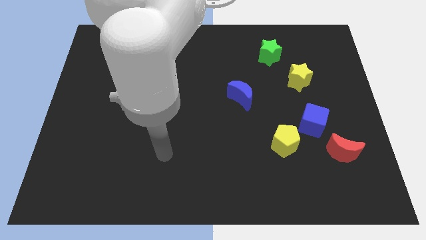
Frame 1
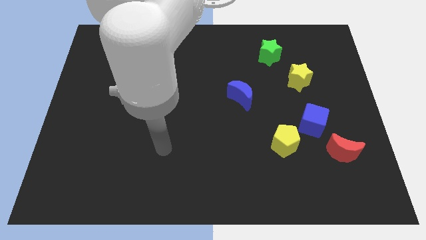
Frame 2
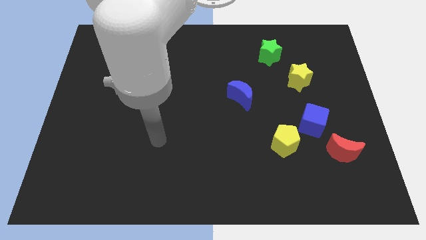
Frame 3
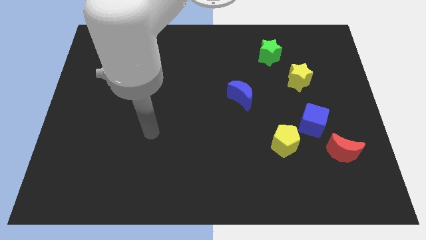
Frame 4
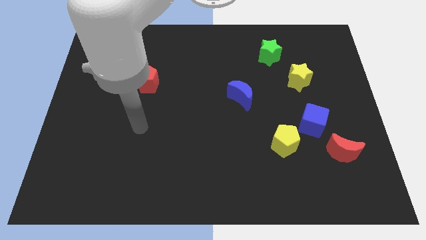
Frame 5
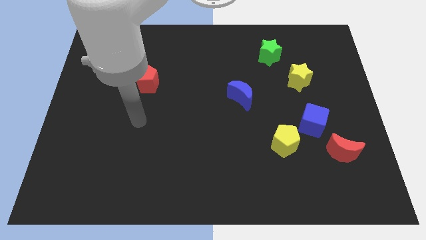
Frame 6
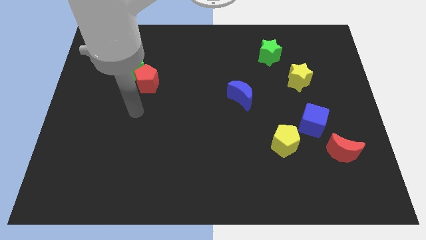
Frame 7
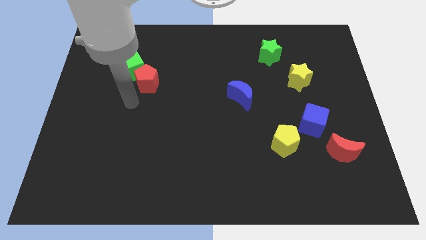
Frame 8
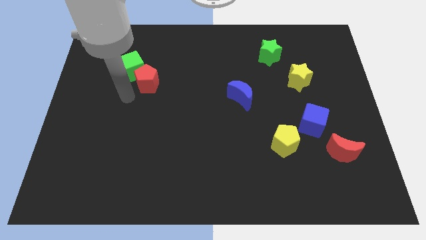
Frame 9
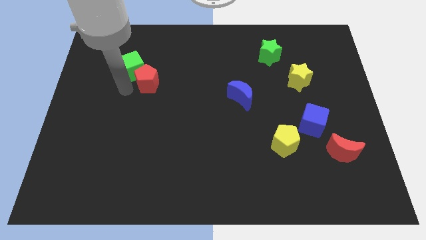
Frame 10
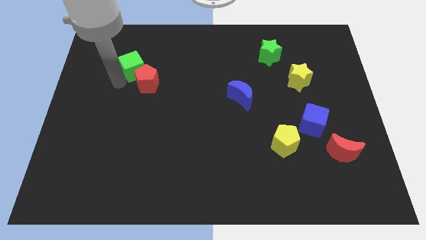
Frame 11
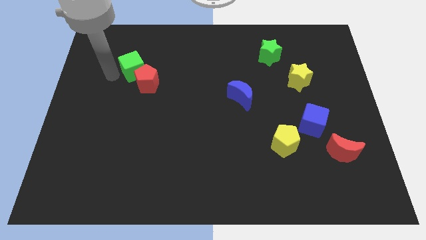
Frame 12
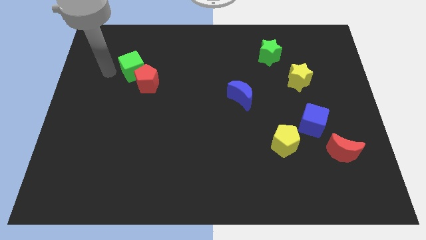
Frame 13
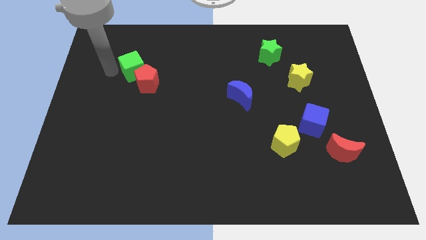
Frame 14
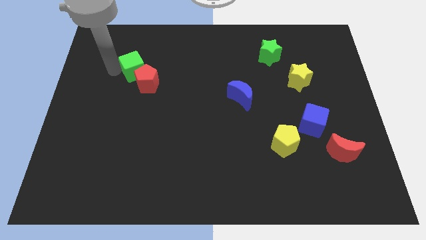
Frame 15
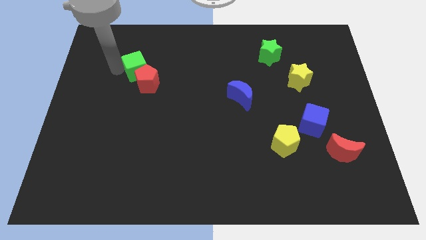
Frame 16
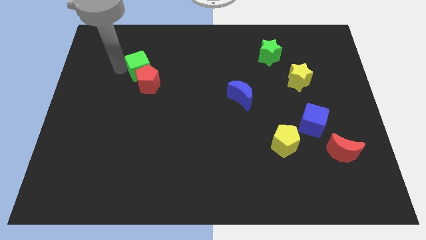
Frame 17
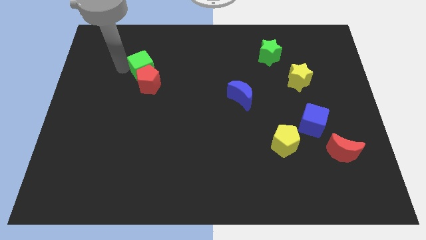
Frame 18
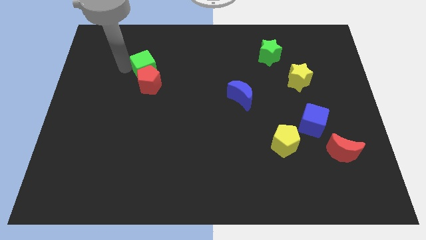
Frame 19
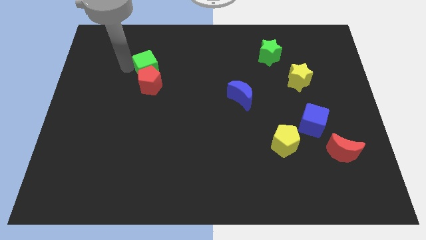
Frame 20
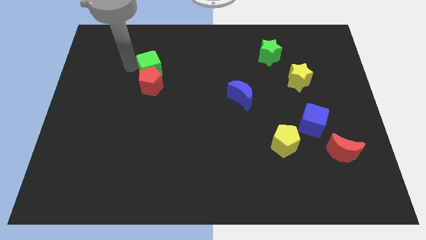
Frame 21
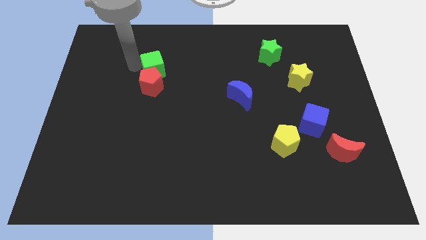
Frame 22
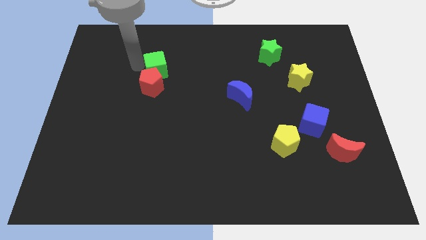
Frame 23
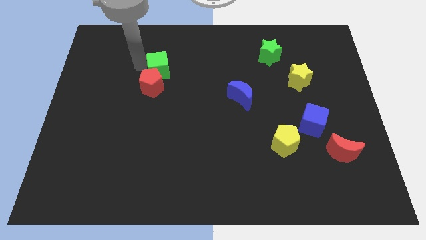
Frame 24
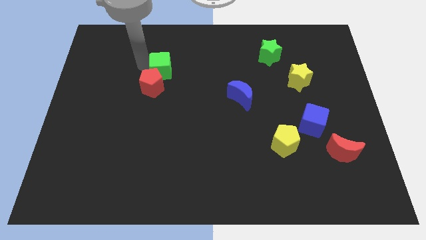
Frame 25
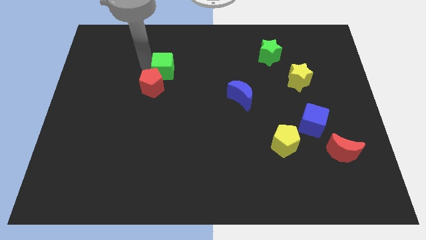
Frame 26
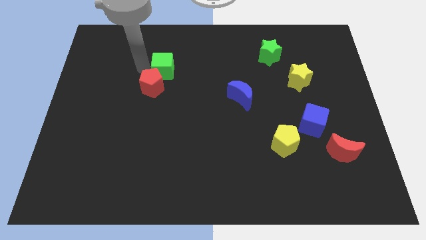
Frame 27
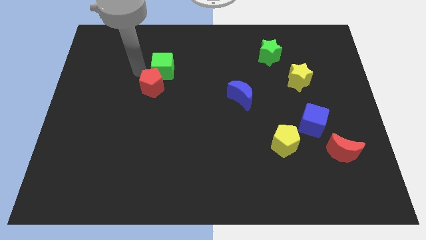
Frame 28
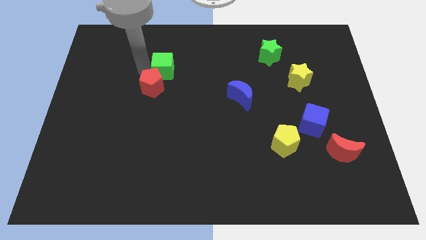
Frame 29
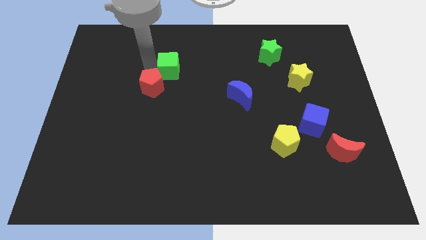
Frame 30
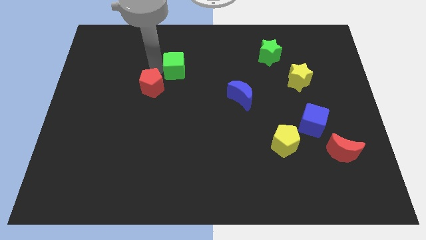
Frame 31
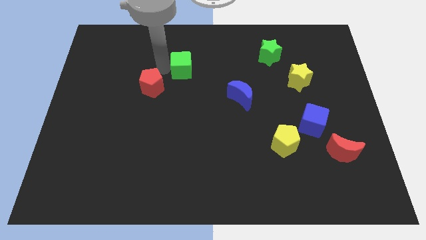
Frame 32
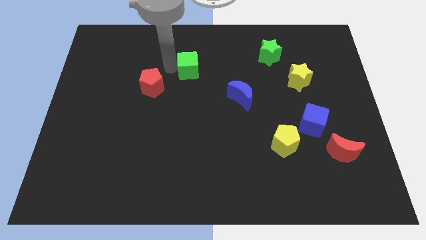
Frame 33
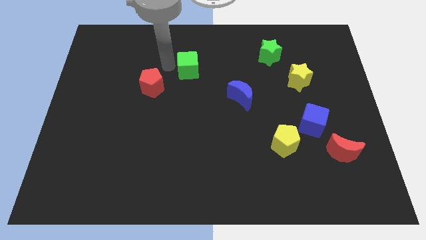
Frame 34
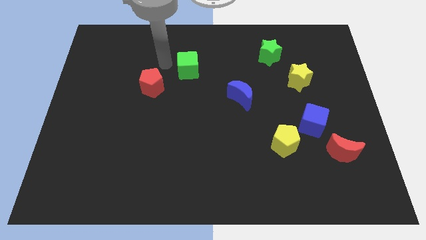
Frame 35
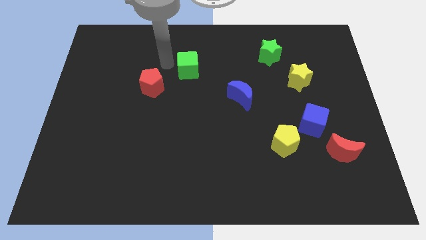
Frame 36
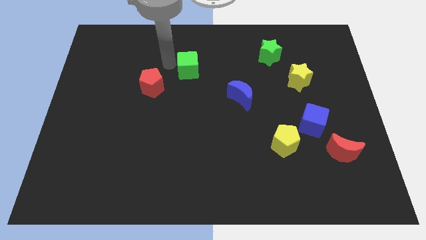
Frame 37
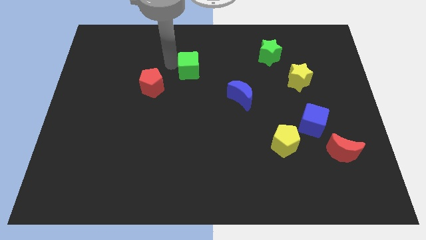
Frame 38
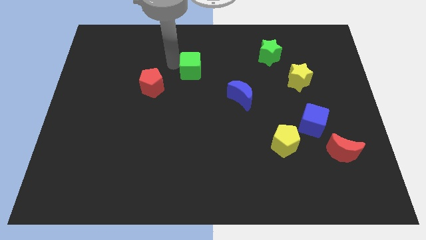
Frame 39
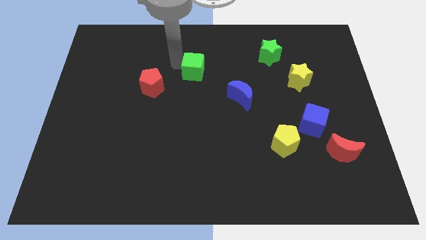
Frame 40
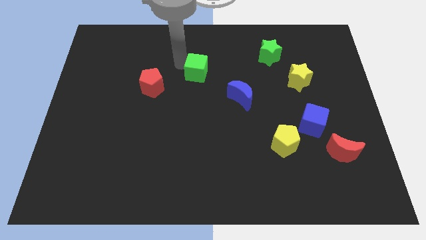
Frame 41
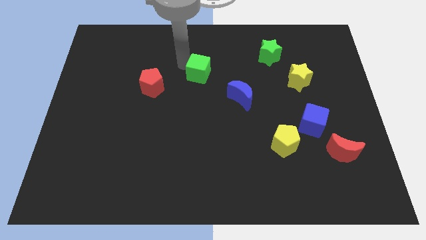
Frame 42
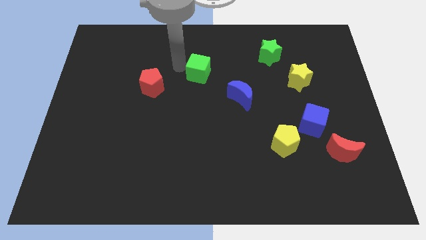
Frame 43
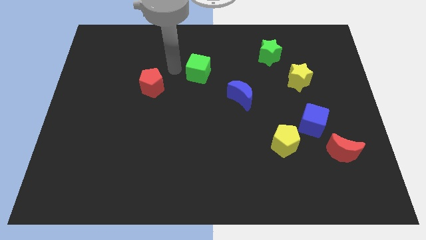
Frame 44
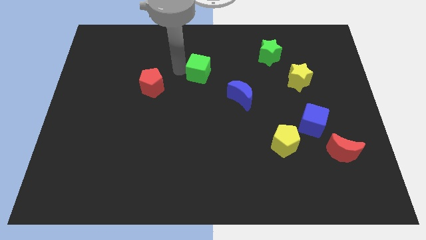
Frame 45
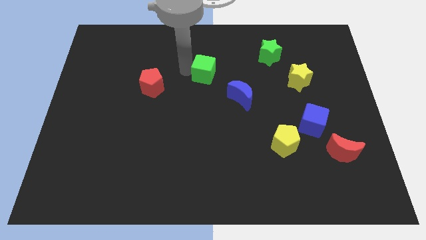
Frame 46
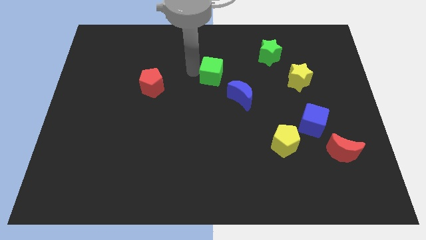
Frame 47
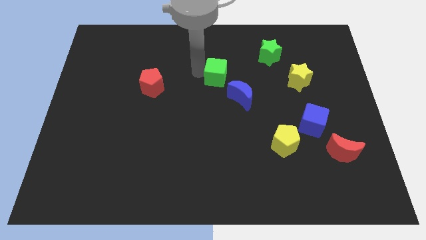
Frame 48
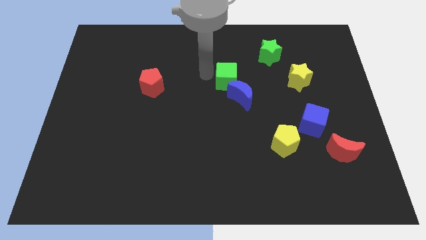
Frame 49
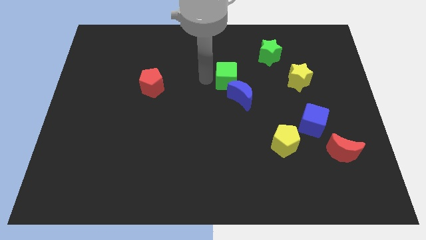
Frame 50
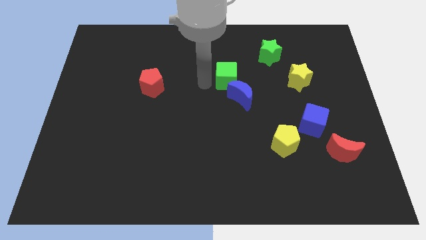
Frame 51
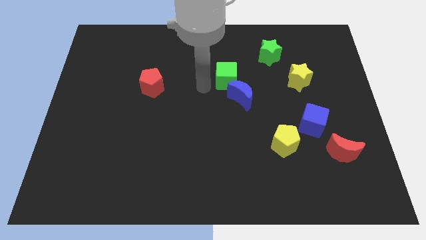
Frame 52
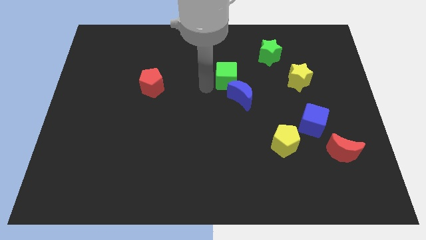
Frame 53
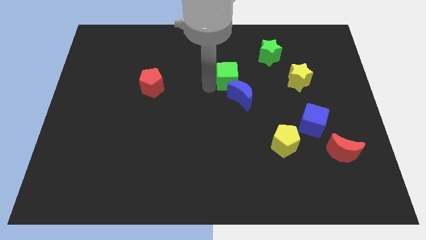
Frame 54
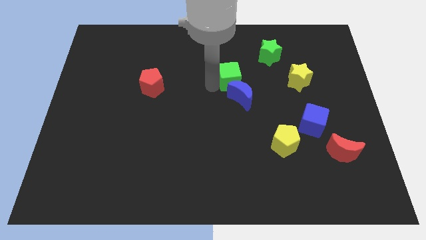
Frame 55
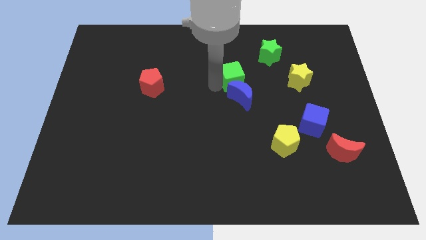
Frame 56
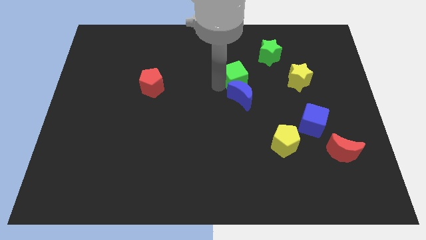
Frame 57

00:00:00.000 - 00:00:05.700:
put the green cube to the bottom left side of the green star

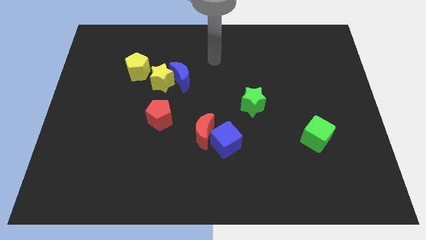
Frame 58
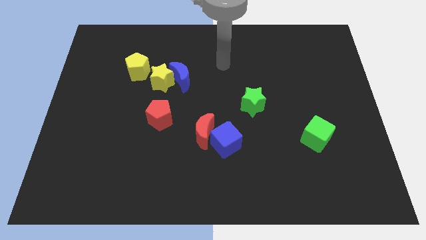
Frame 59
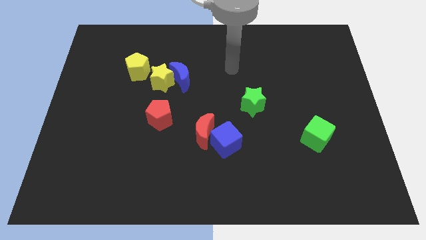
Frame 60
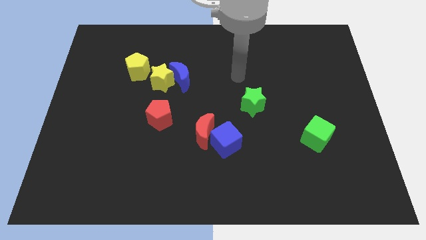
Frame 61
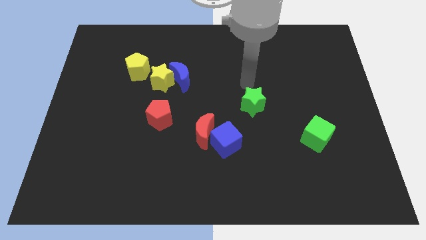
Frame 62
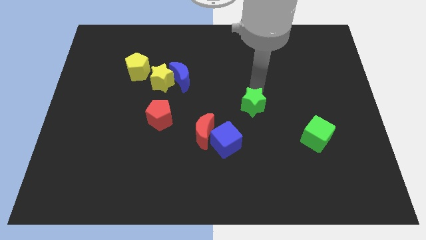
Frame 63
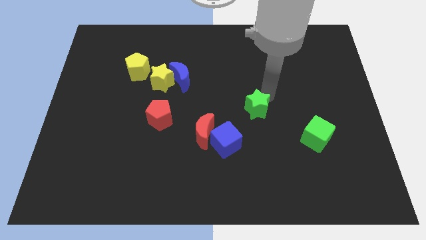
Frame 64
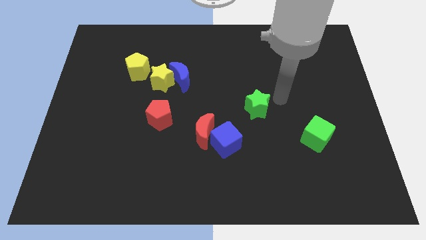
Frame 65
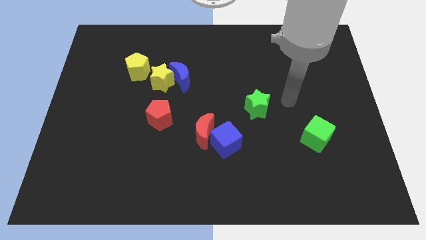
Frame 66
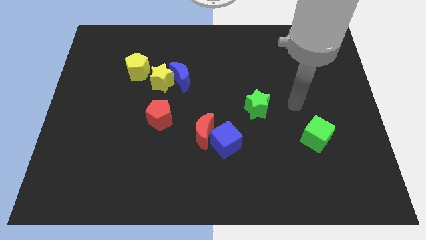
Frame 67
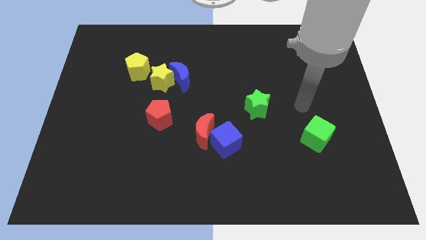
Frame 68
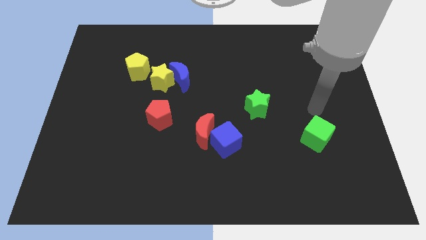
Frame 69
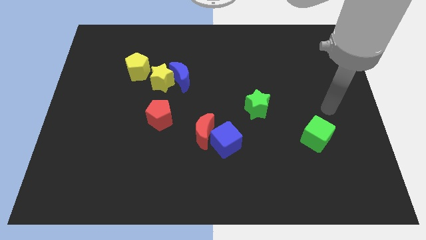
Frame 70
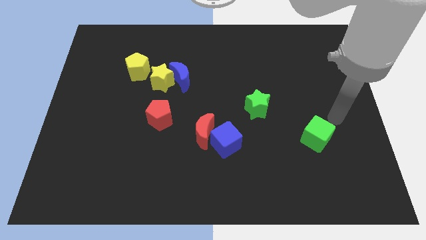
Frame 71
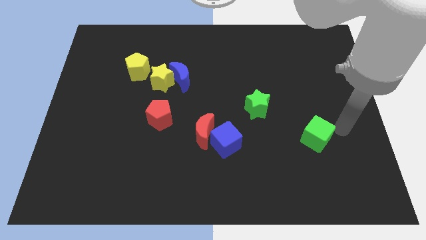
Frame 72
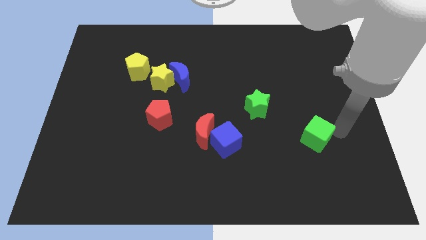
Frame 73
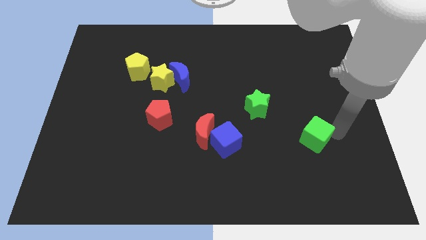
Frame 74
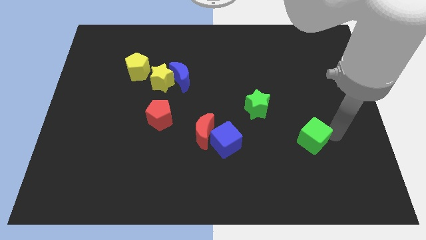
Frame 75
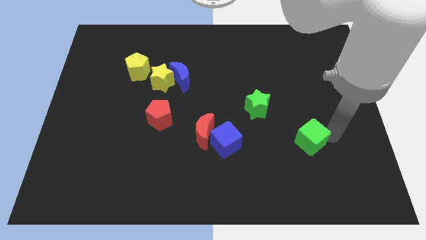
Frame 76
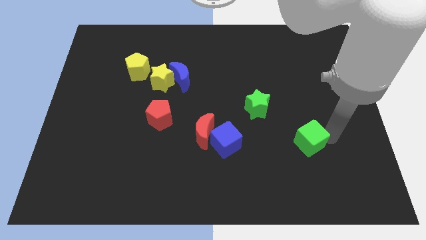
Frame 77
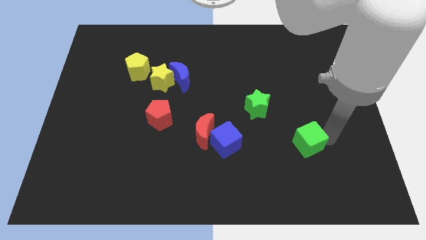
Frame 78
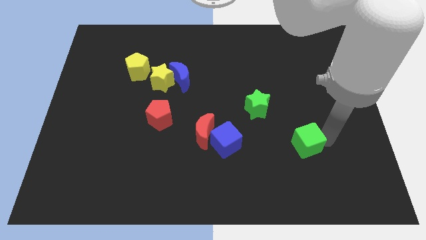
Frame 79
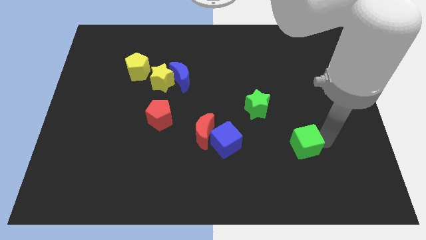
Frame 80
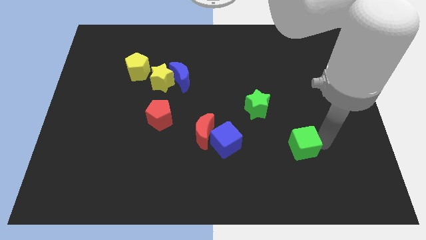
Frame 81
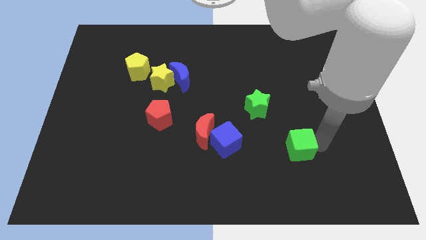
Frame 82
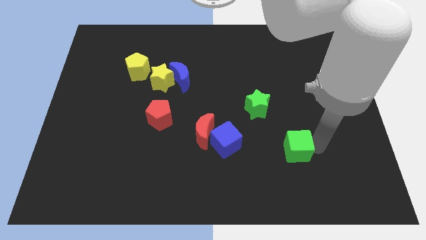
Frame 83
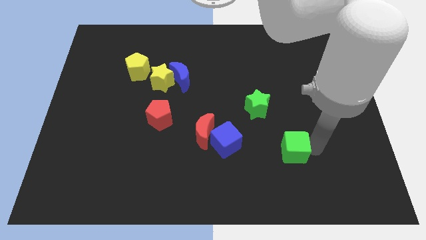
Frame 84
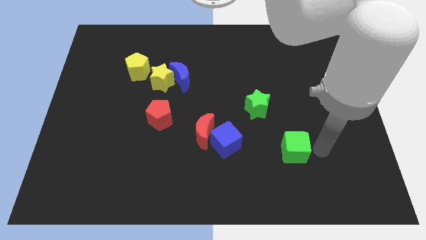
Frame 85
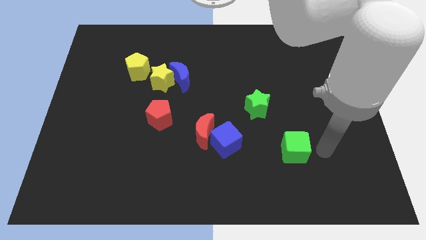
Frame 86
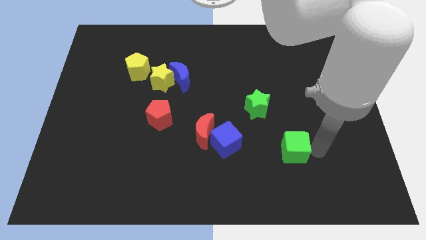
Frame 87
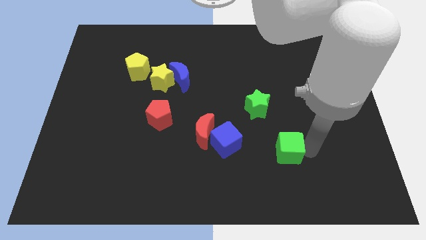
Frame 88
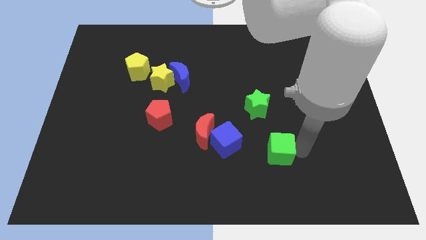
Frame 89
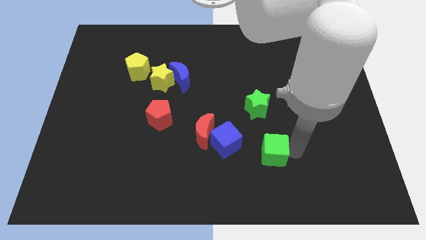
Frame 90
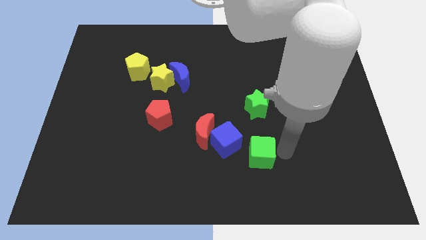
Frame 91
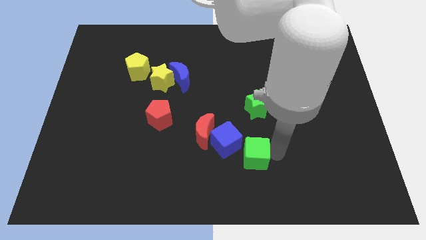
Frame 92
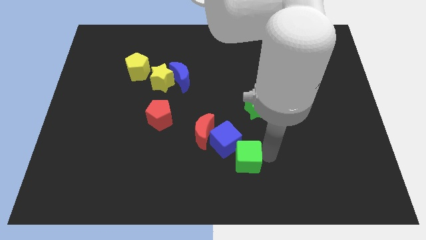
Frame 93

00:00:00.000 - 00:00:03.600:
move the green cube to the bottom right side of the red moon
